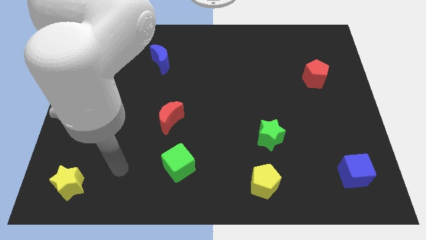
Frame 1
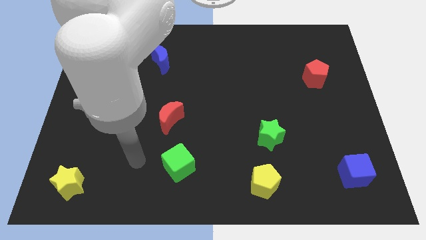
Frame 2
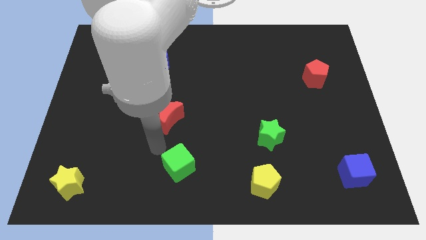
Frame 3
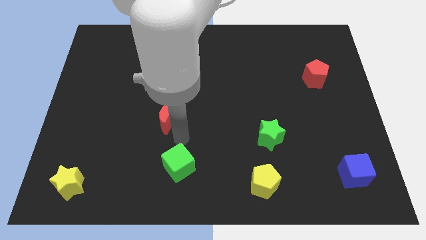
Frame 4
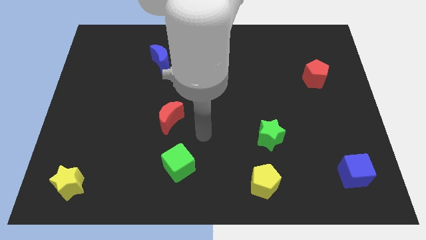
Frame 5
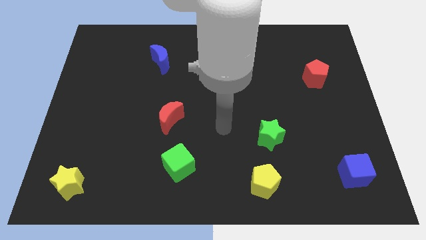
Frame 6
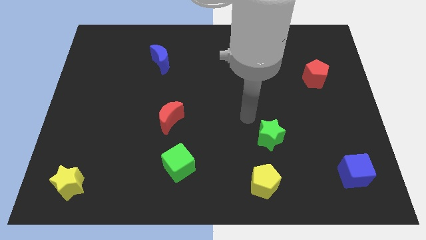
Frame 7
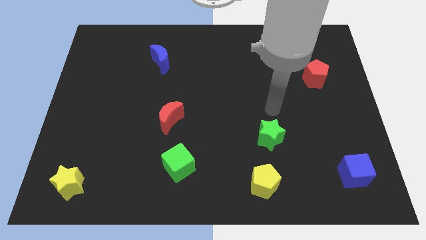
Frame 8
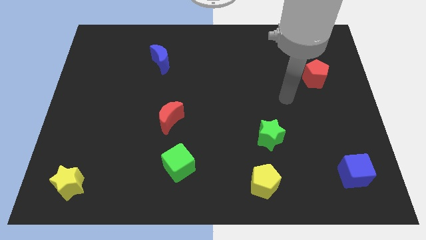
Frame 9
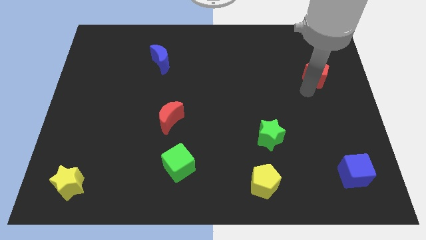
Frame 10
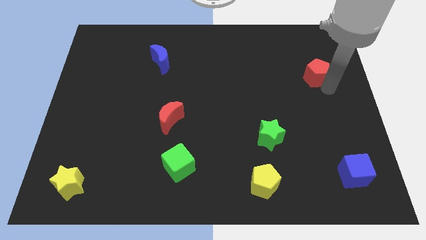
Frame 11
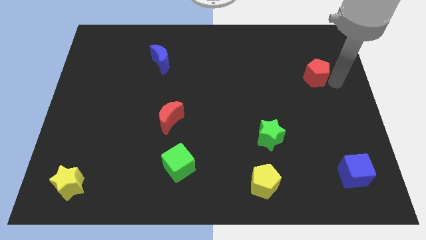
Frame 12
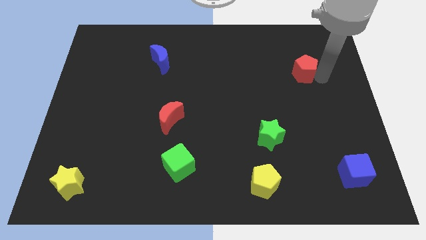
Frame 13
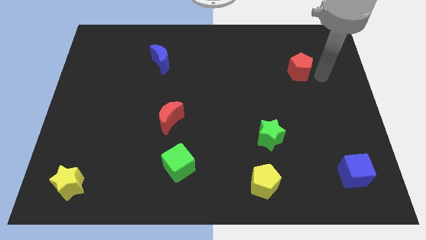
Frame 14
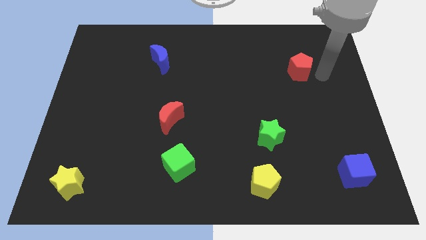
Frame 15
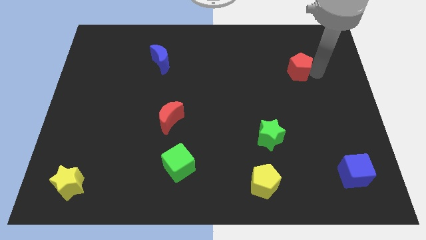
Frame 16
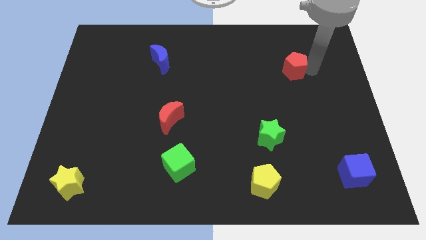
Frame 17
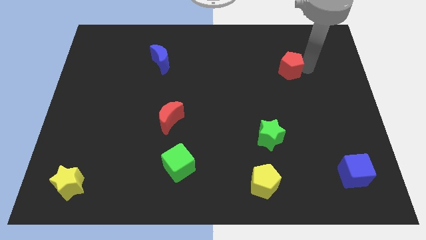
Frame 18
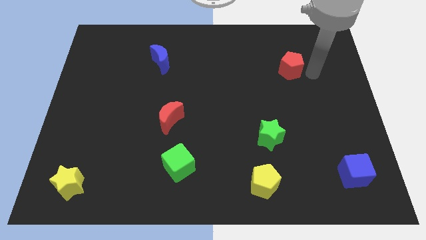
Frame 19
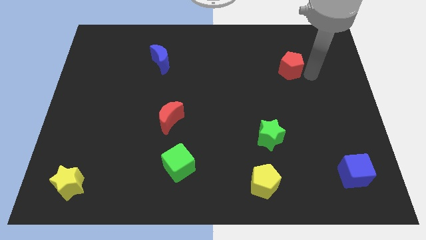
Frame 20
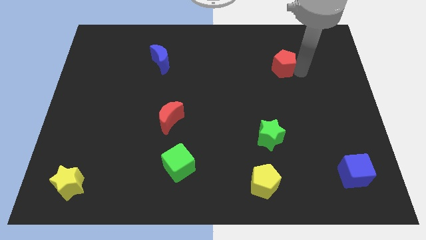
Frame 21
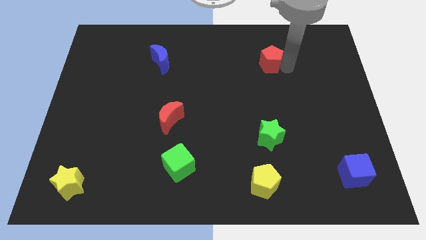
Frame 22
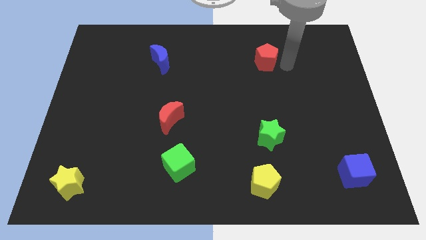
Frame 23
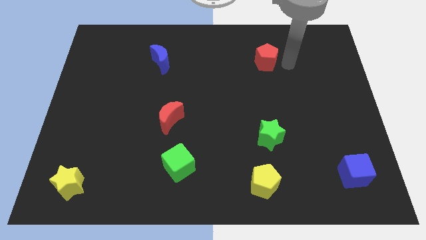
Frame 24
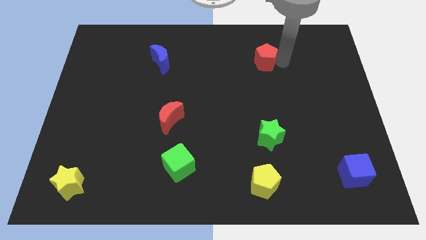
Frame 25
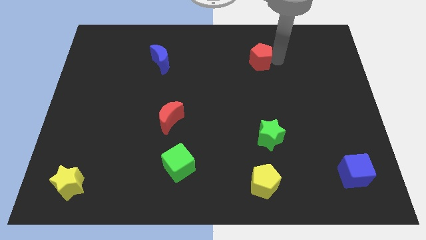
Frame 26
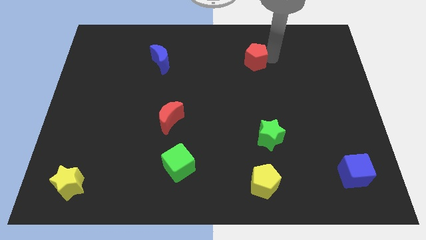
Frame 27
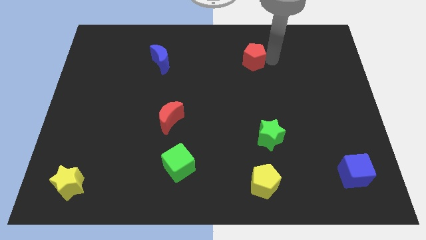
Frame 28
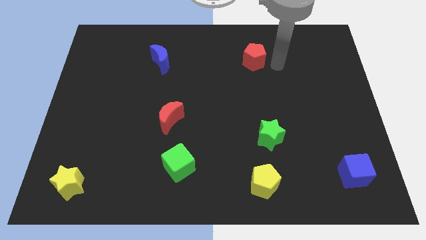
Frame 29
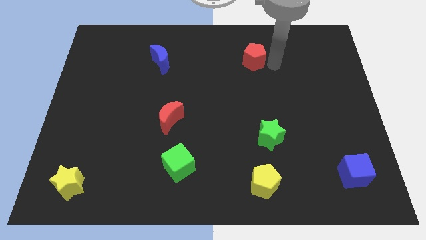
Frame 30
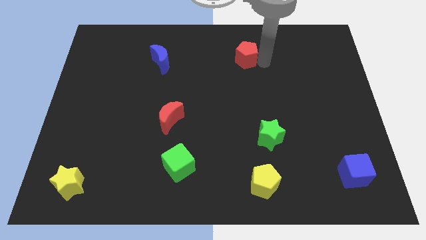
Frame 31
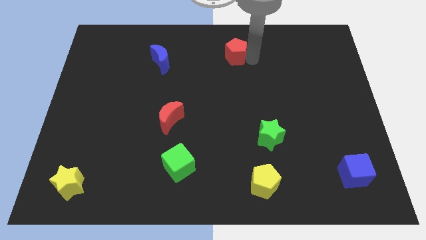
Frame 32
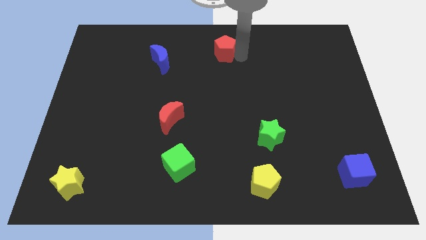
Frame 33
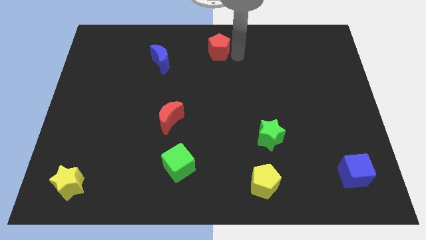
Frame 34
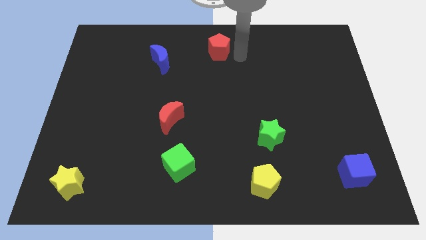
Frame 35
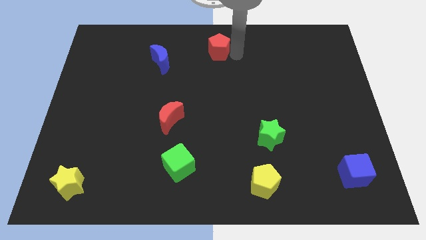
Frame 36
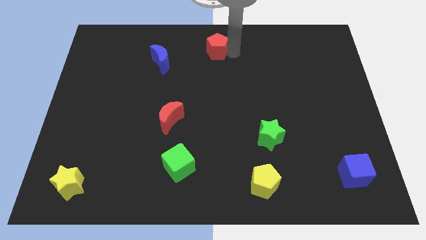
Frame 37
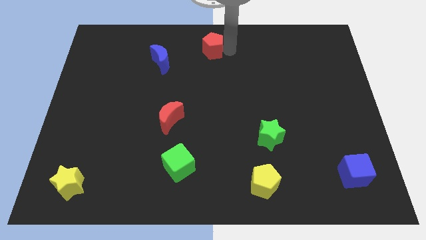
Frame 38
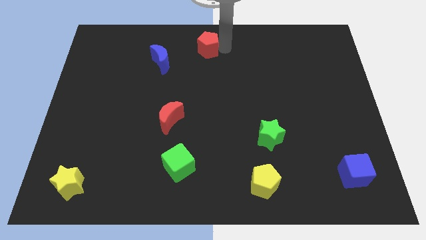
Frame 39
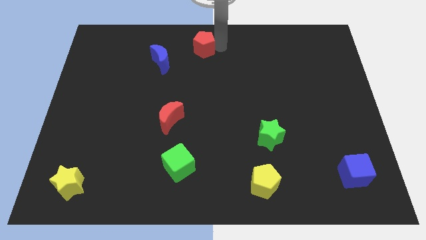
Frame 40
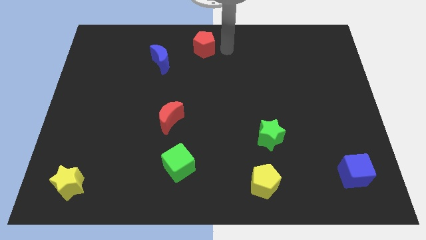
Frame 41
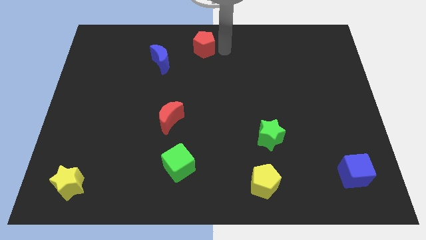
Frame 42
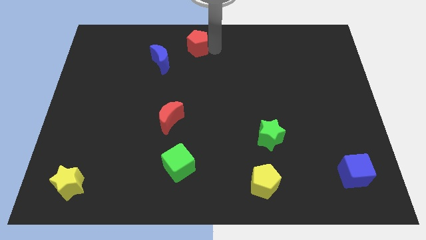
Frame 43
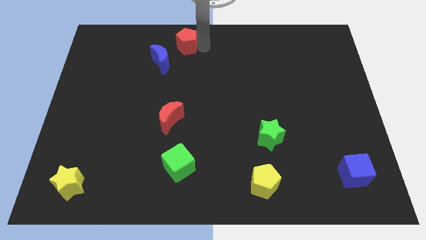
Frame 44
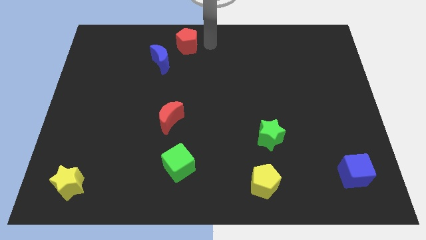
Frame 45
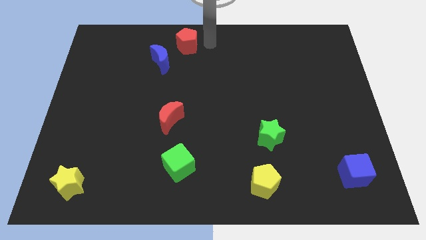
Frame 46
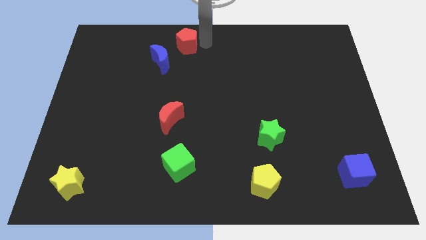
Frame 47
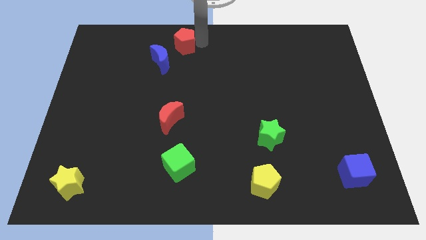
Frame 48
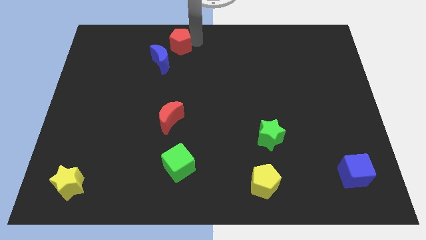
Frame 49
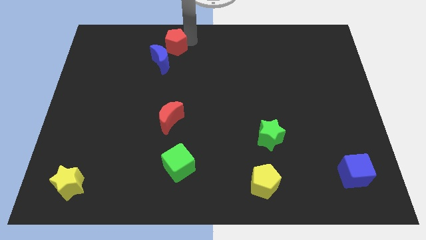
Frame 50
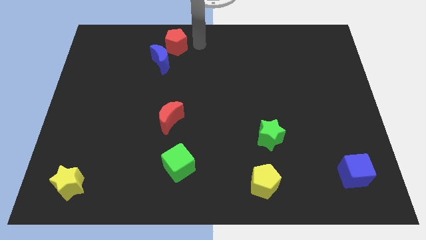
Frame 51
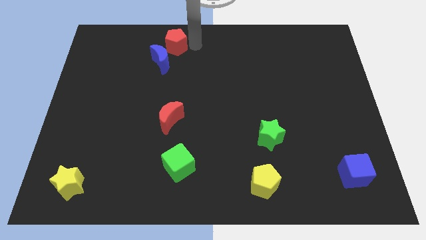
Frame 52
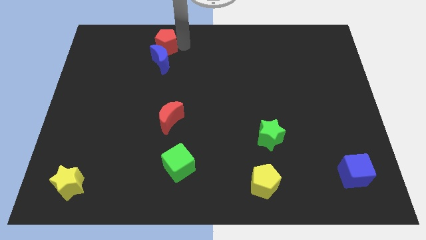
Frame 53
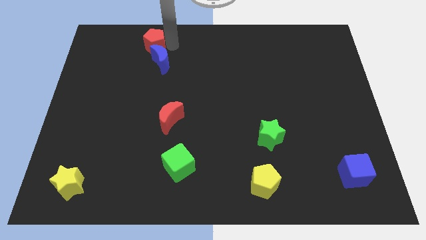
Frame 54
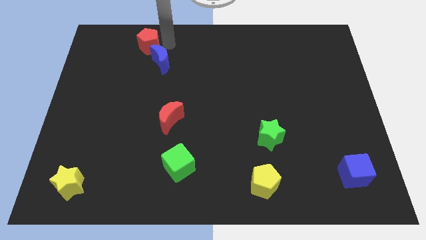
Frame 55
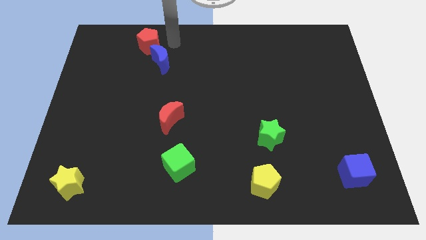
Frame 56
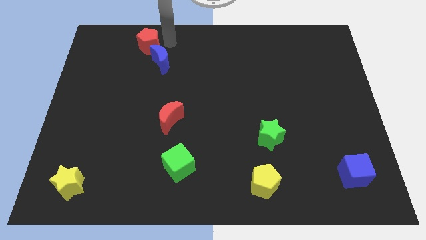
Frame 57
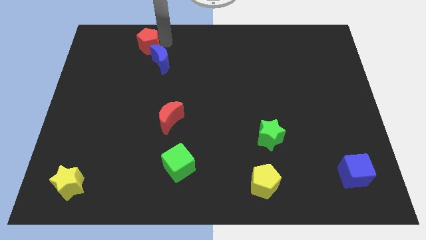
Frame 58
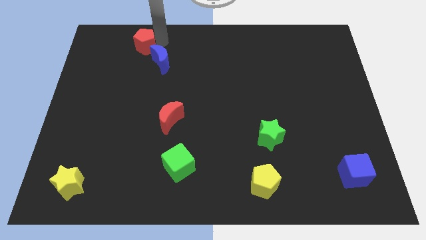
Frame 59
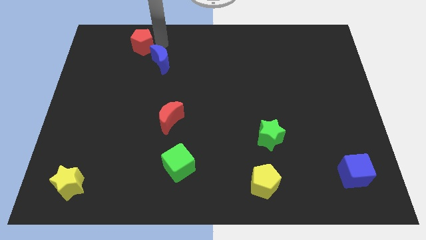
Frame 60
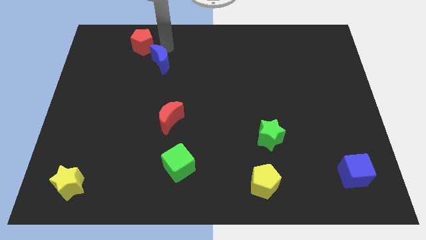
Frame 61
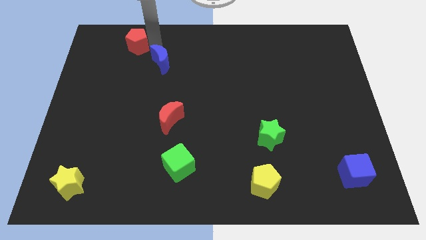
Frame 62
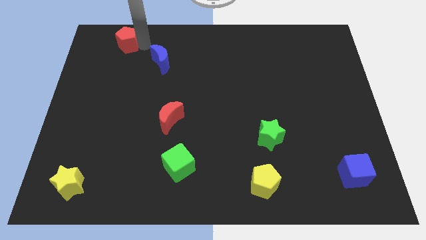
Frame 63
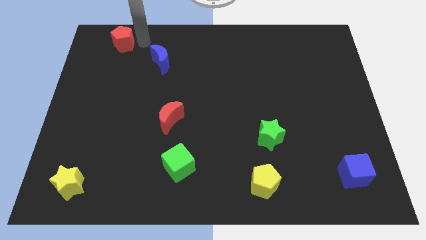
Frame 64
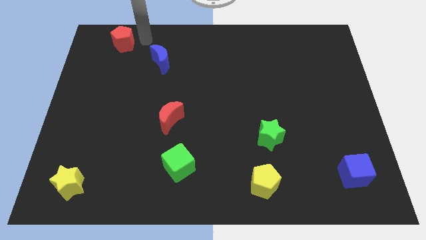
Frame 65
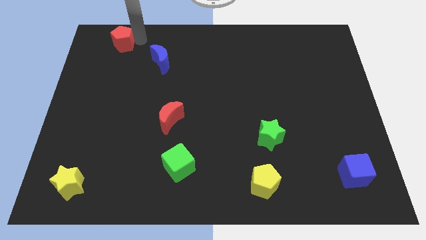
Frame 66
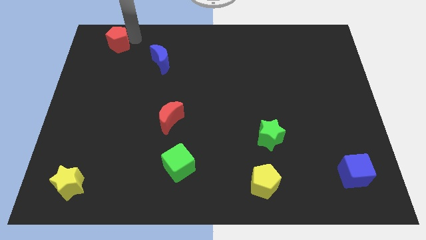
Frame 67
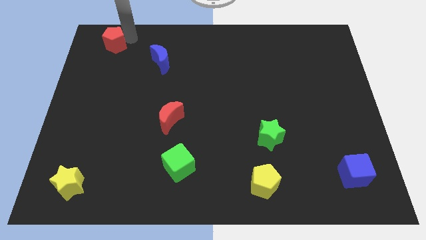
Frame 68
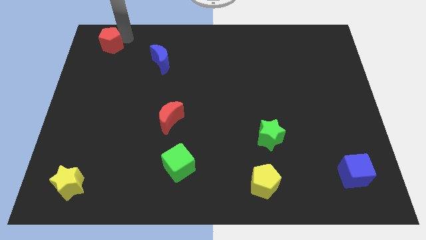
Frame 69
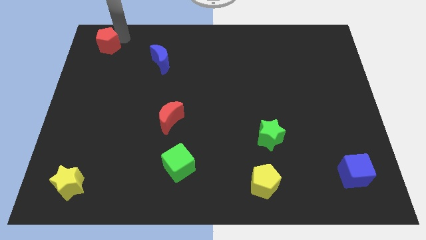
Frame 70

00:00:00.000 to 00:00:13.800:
put the red pentagon to the top left of the board

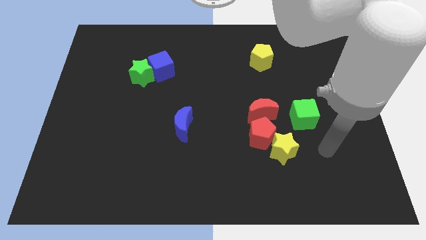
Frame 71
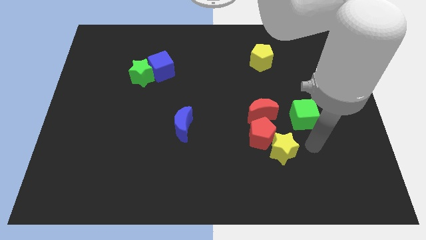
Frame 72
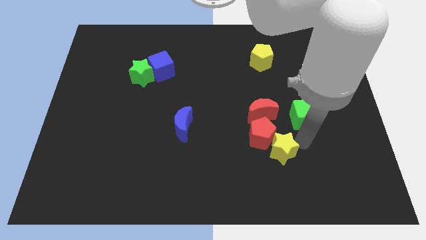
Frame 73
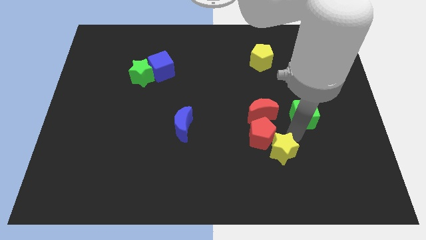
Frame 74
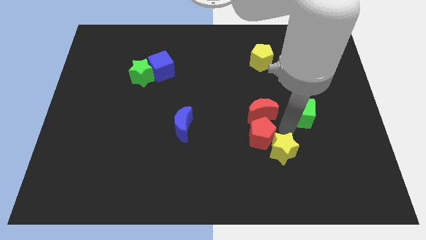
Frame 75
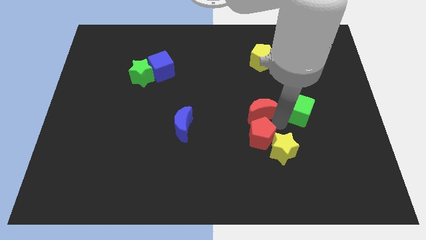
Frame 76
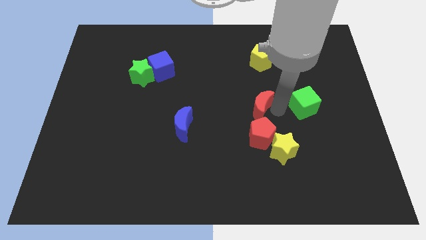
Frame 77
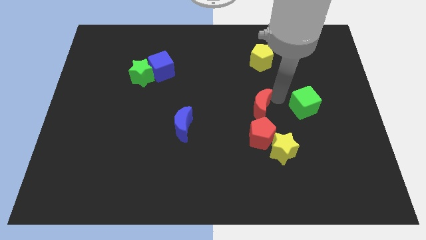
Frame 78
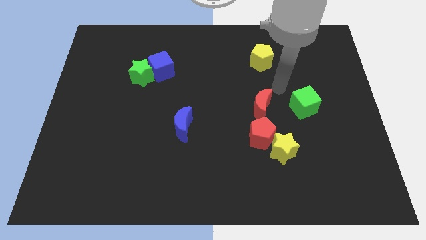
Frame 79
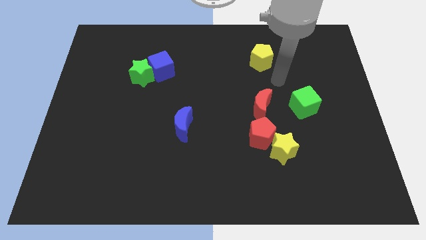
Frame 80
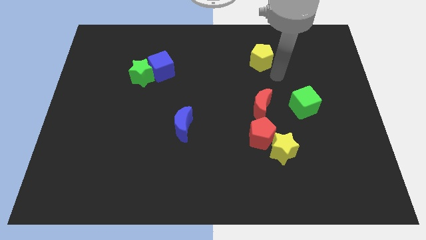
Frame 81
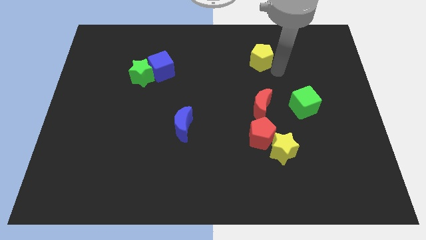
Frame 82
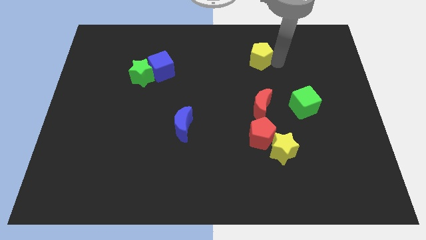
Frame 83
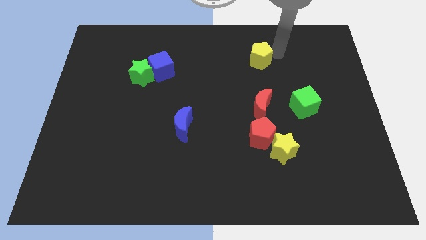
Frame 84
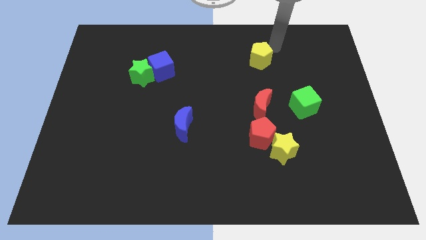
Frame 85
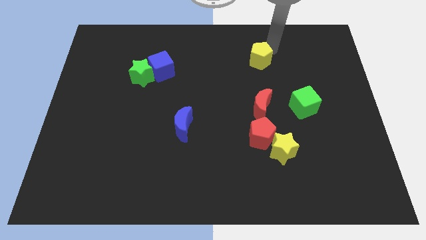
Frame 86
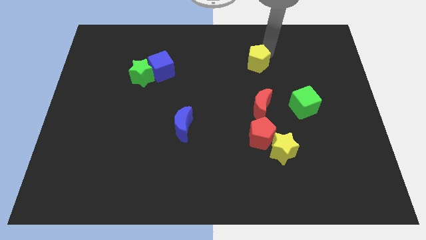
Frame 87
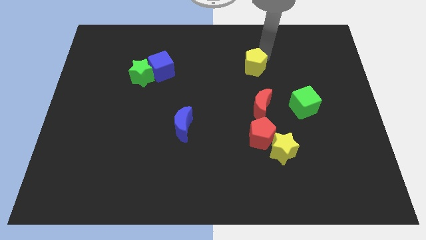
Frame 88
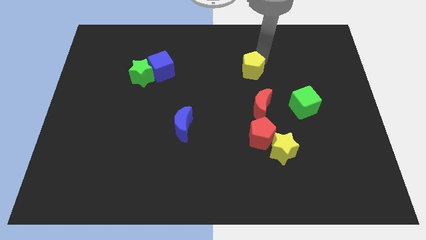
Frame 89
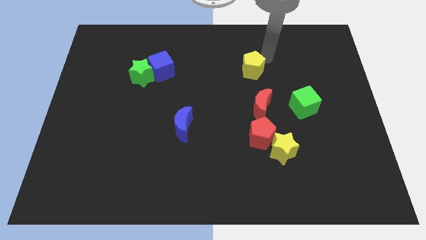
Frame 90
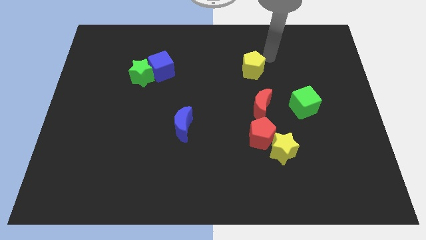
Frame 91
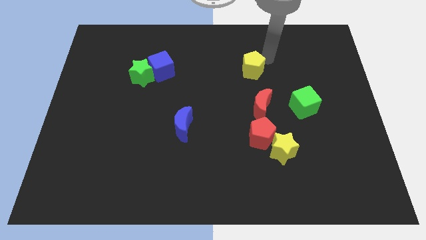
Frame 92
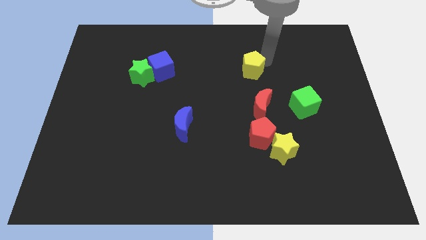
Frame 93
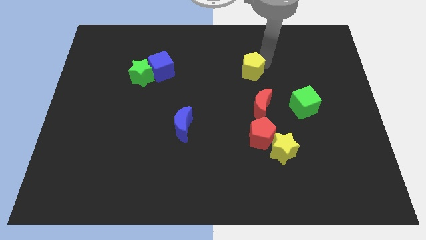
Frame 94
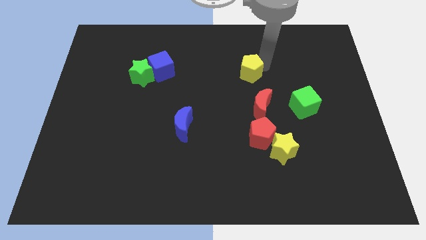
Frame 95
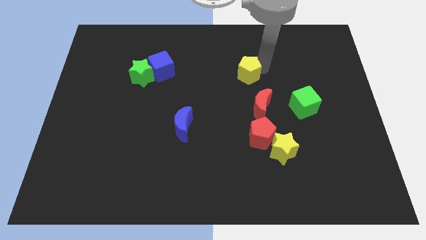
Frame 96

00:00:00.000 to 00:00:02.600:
push the yellow pentagon to the center
